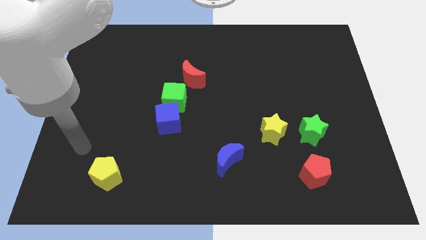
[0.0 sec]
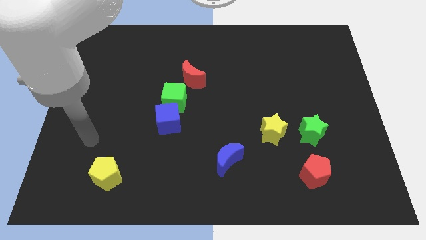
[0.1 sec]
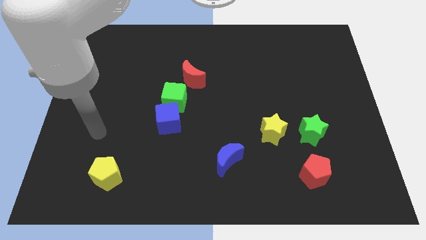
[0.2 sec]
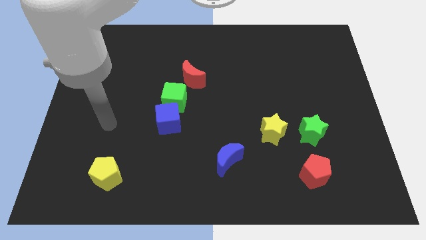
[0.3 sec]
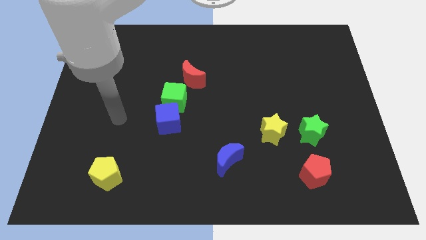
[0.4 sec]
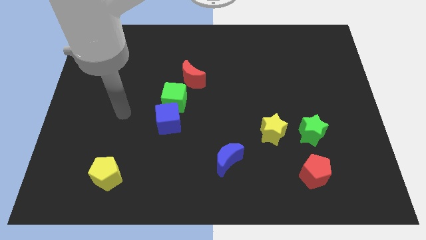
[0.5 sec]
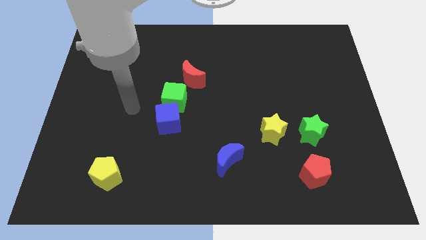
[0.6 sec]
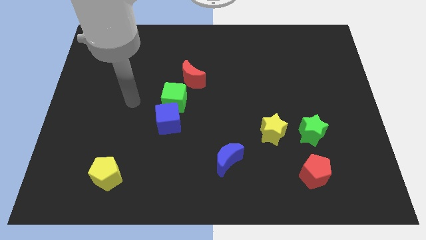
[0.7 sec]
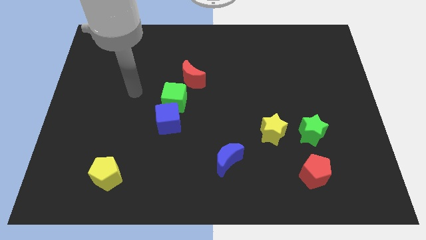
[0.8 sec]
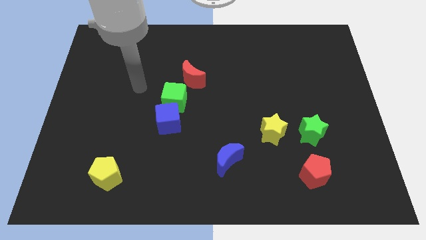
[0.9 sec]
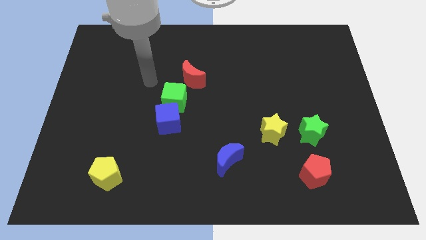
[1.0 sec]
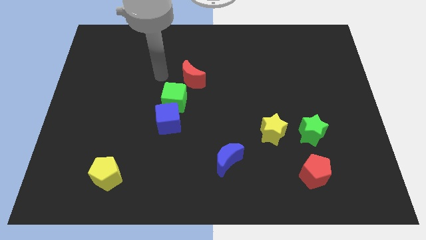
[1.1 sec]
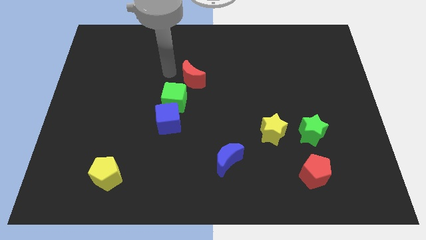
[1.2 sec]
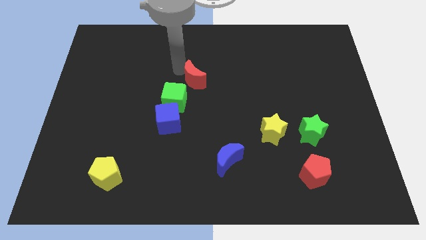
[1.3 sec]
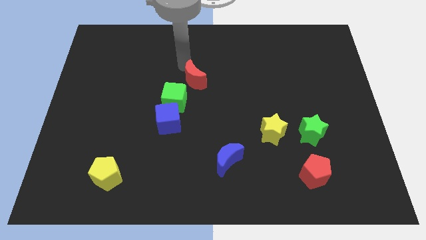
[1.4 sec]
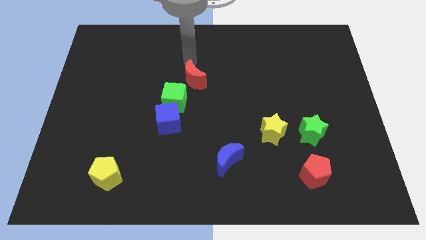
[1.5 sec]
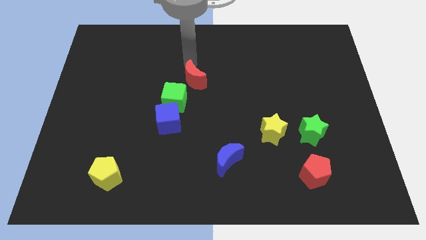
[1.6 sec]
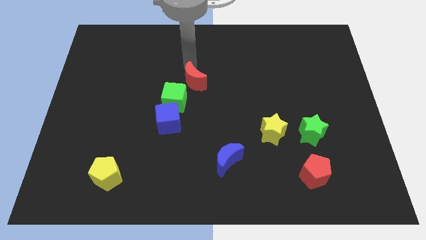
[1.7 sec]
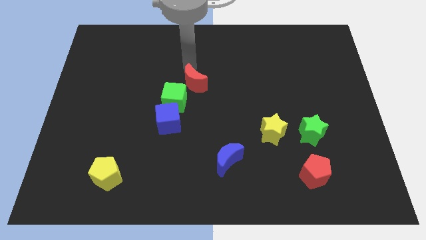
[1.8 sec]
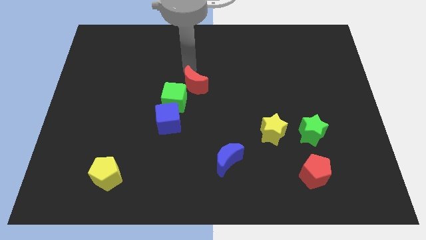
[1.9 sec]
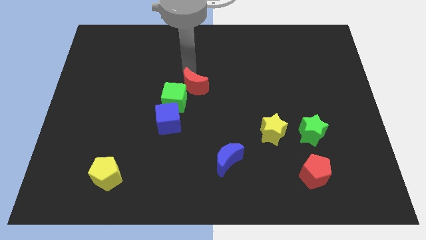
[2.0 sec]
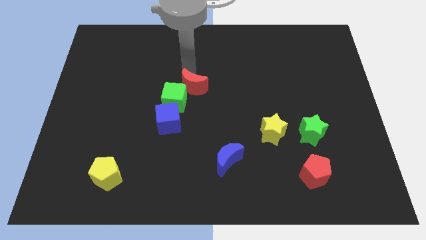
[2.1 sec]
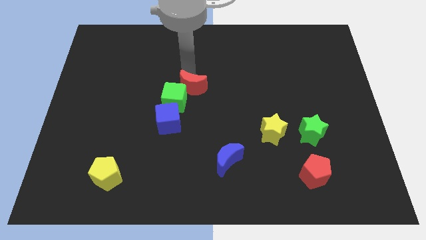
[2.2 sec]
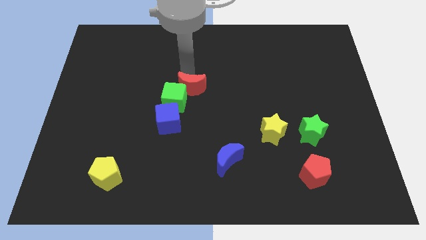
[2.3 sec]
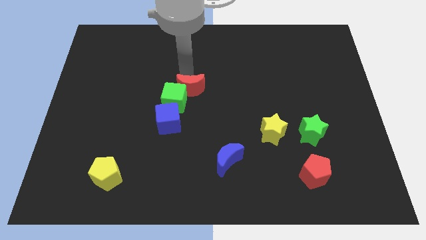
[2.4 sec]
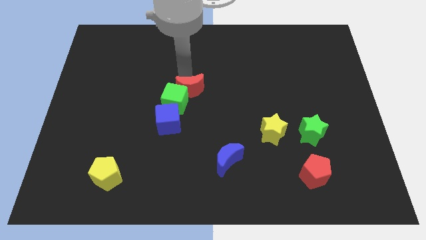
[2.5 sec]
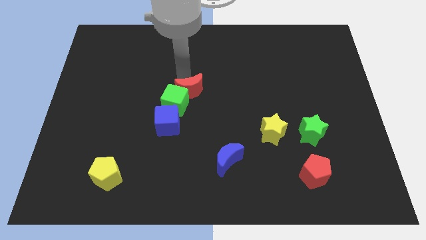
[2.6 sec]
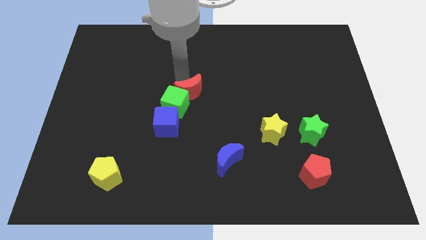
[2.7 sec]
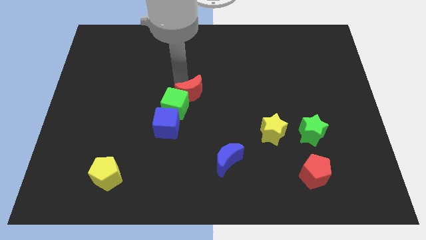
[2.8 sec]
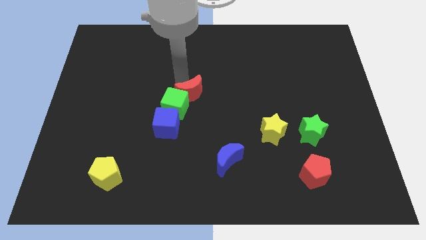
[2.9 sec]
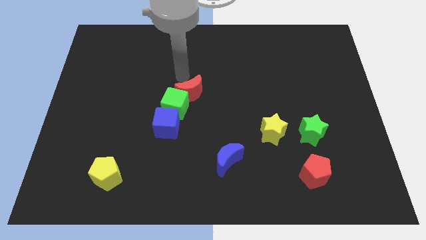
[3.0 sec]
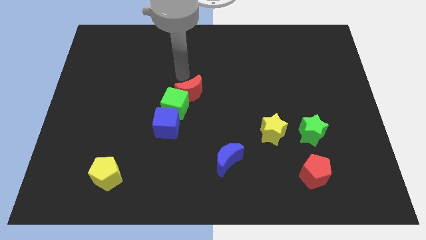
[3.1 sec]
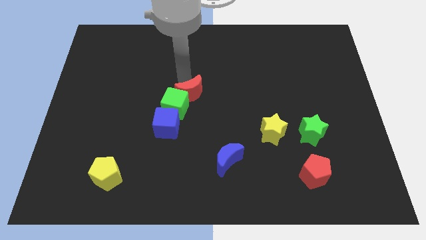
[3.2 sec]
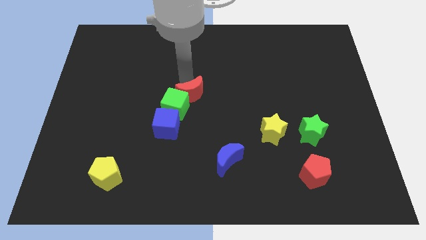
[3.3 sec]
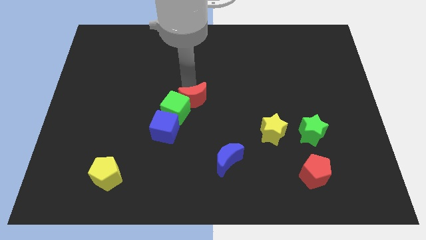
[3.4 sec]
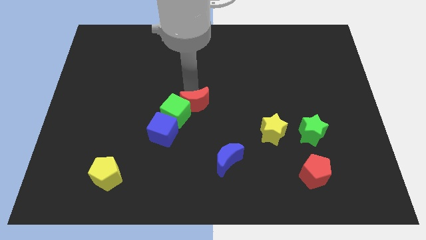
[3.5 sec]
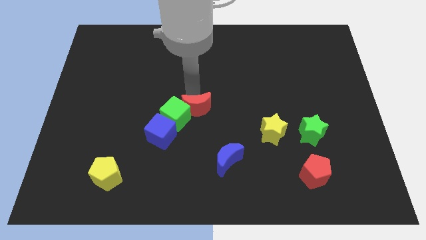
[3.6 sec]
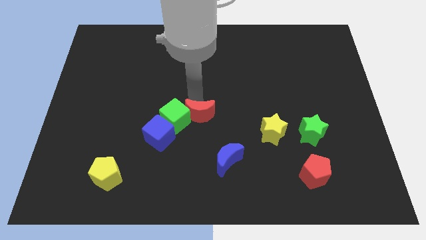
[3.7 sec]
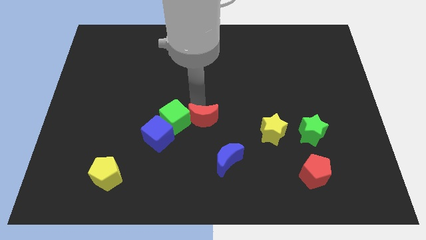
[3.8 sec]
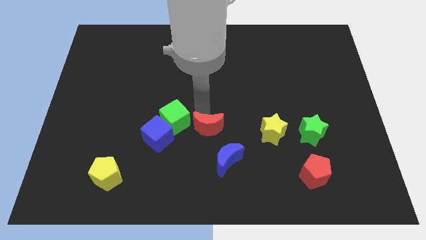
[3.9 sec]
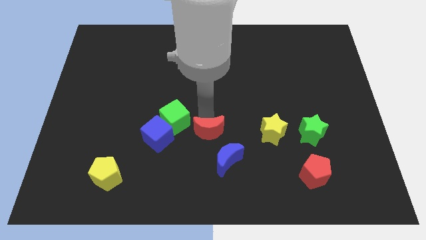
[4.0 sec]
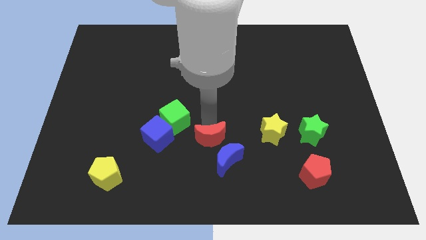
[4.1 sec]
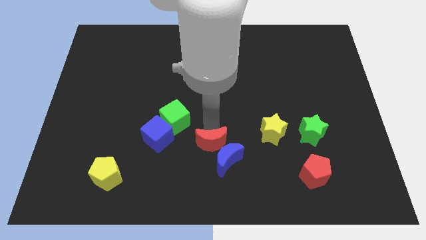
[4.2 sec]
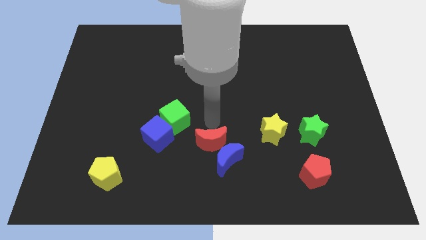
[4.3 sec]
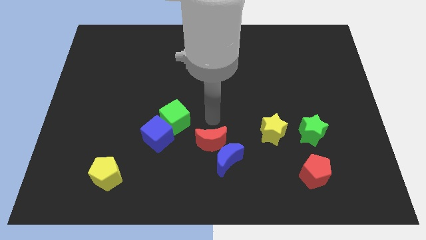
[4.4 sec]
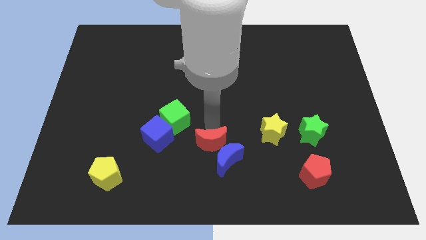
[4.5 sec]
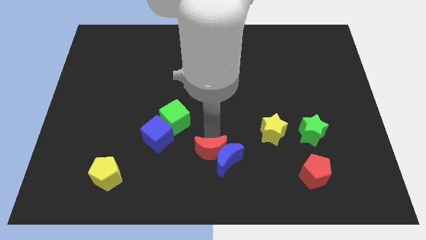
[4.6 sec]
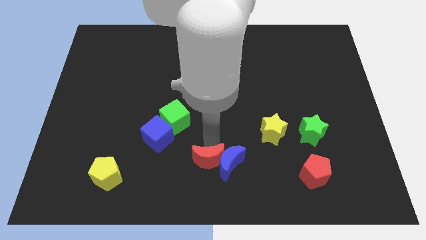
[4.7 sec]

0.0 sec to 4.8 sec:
push the red moon to the bottom

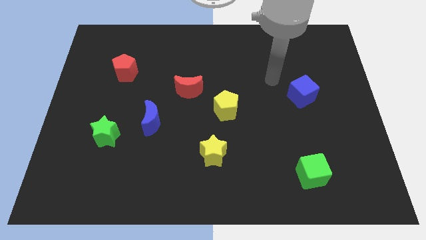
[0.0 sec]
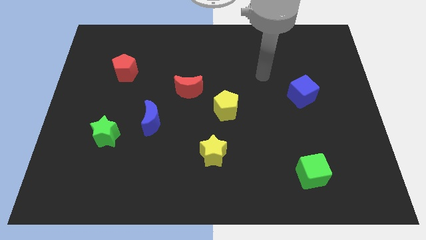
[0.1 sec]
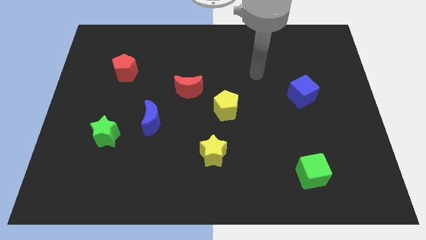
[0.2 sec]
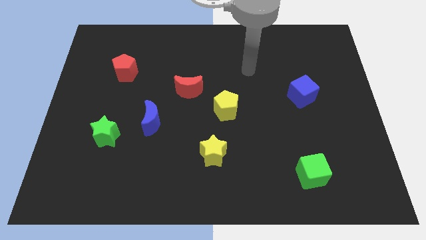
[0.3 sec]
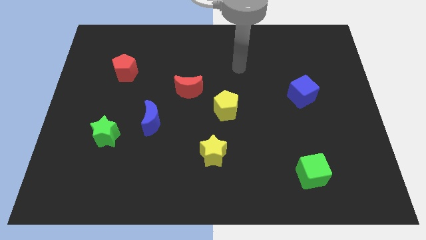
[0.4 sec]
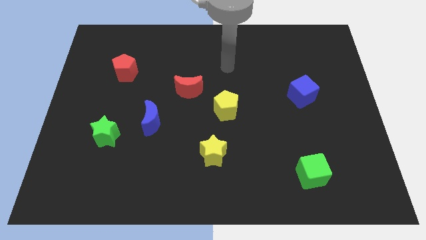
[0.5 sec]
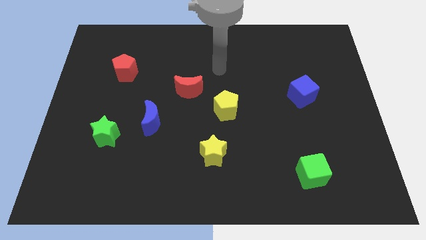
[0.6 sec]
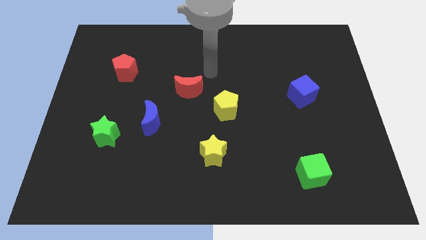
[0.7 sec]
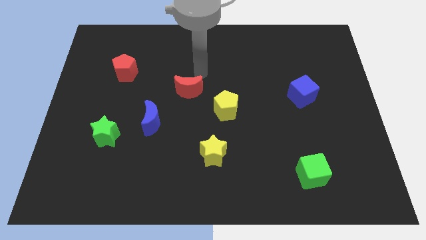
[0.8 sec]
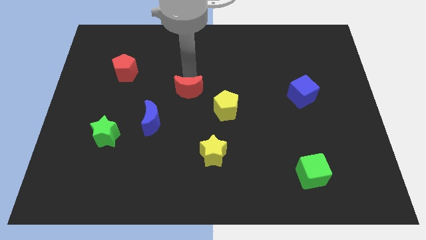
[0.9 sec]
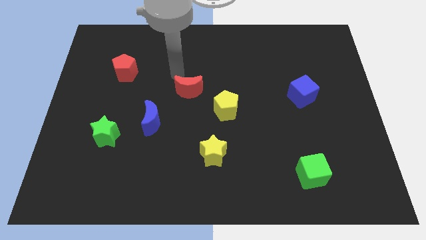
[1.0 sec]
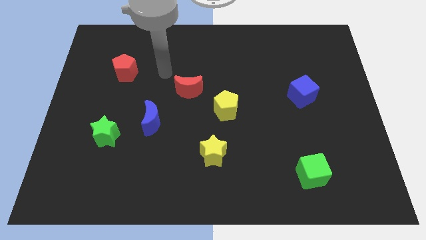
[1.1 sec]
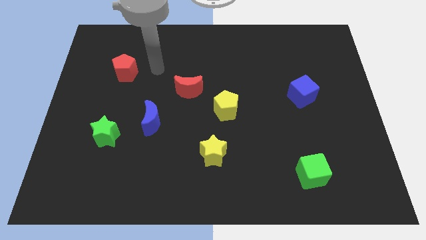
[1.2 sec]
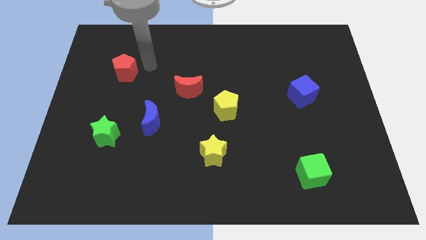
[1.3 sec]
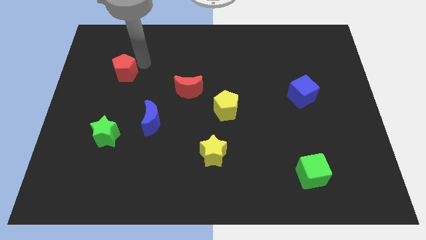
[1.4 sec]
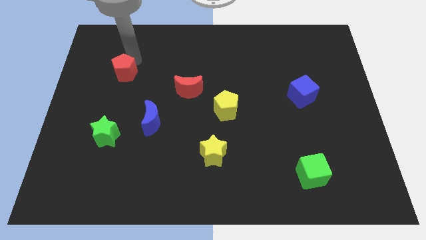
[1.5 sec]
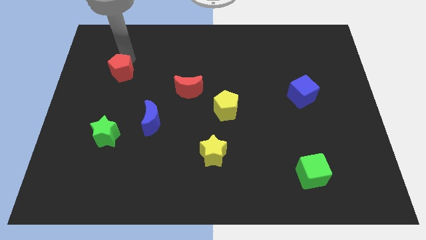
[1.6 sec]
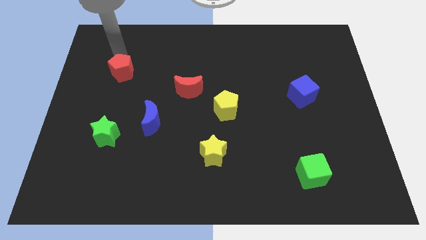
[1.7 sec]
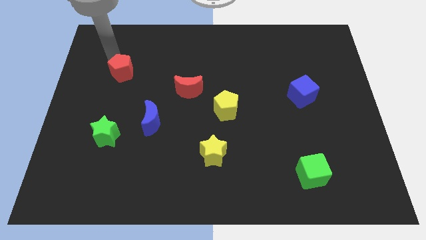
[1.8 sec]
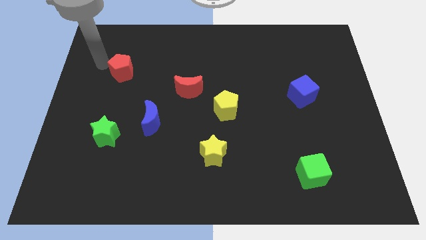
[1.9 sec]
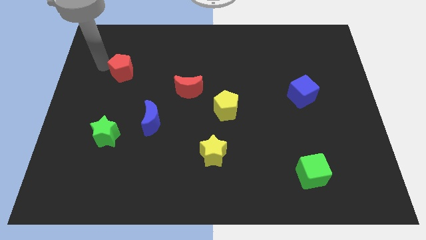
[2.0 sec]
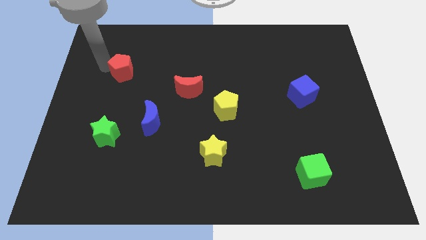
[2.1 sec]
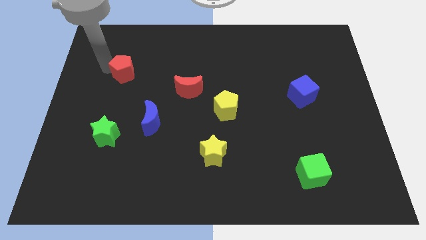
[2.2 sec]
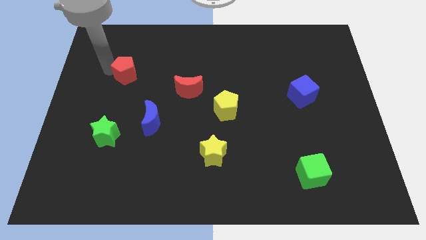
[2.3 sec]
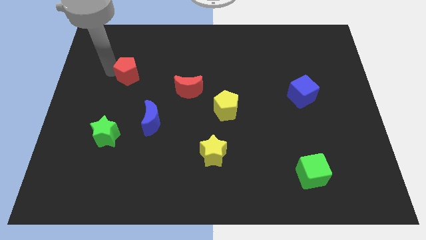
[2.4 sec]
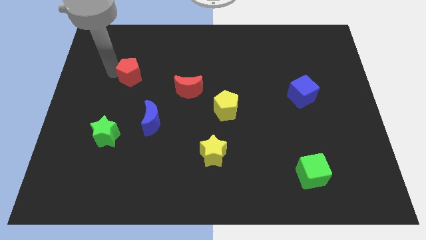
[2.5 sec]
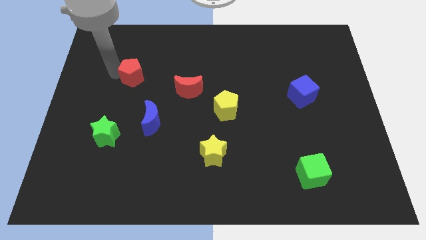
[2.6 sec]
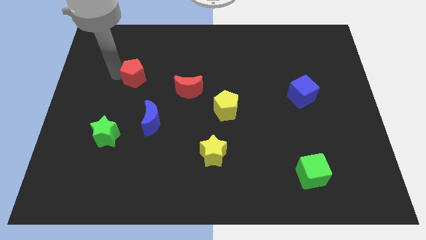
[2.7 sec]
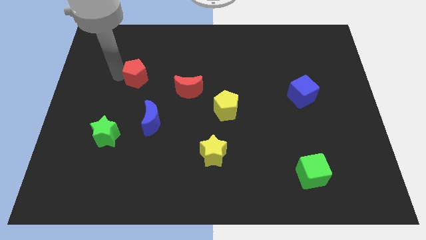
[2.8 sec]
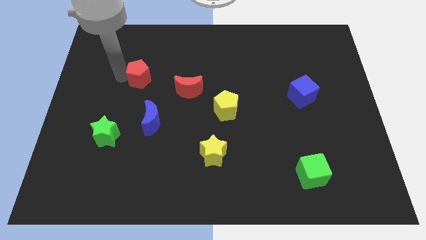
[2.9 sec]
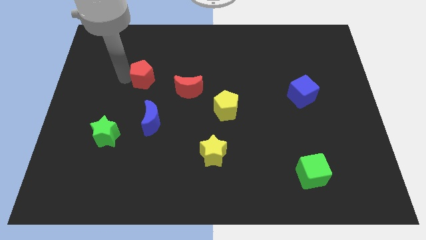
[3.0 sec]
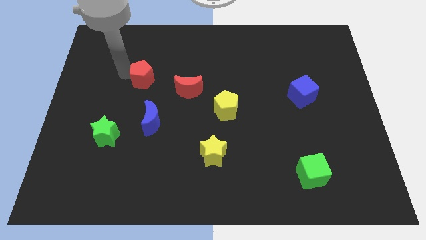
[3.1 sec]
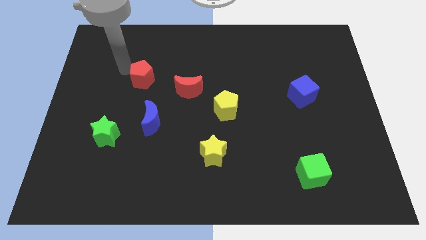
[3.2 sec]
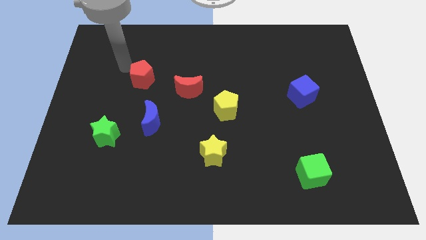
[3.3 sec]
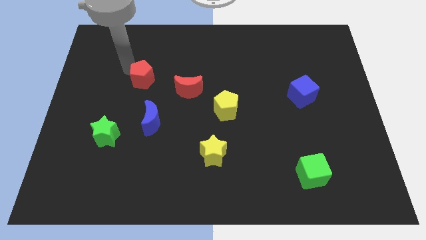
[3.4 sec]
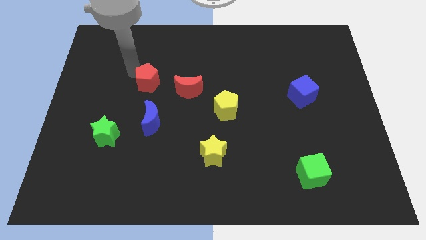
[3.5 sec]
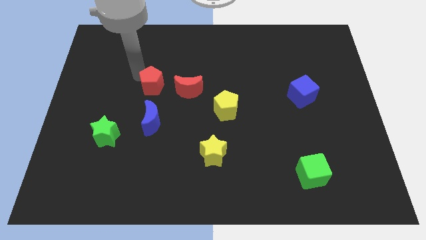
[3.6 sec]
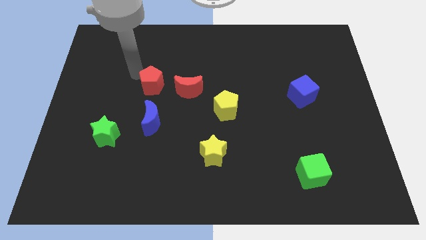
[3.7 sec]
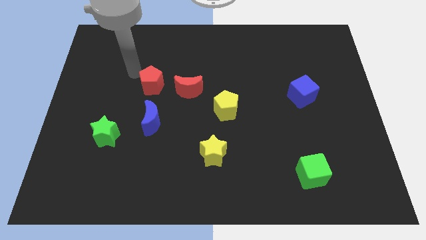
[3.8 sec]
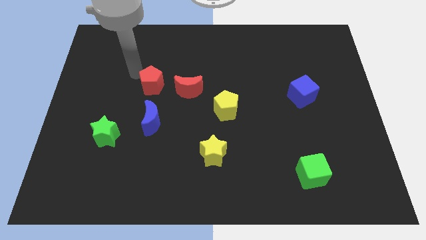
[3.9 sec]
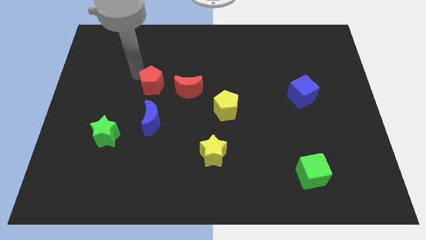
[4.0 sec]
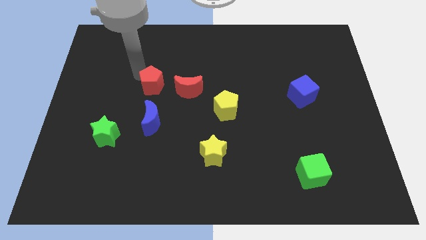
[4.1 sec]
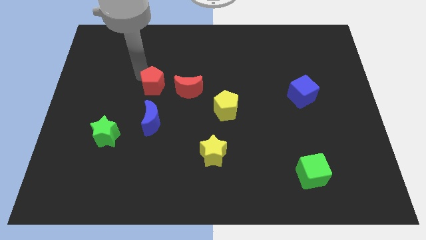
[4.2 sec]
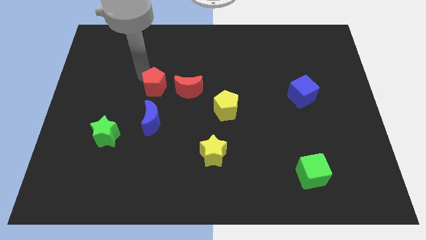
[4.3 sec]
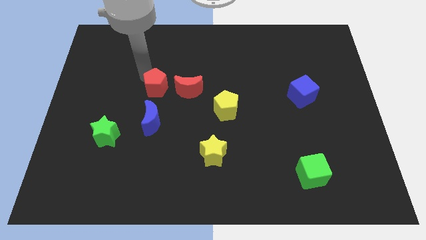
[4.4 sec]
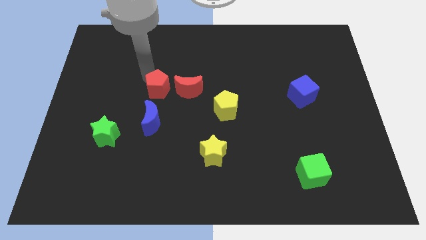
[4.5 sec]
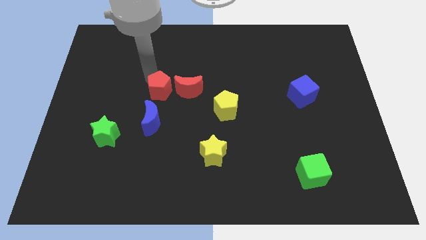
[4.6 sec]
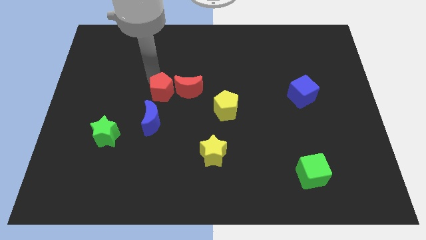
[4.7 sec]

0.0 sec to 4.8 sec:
put the red pentagon to the center
